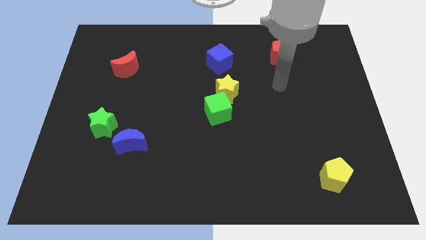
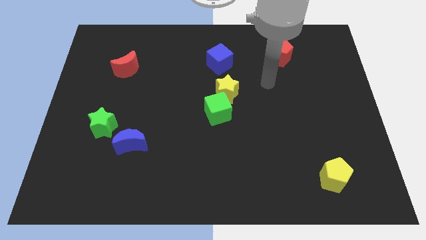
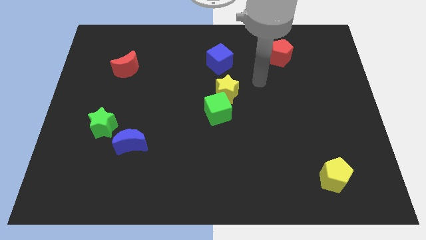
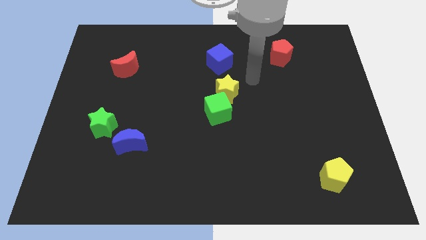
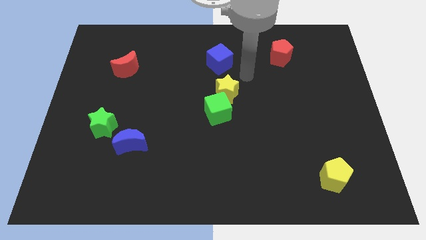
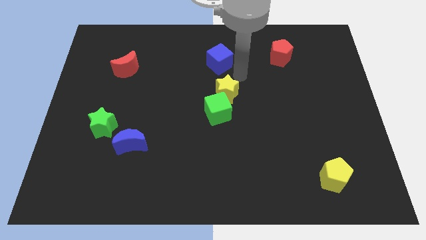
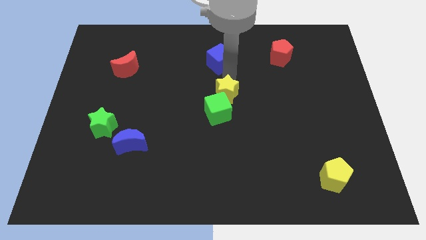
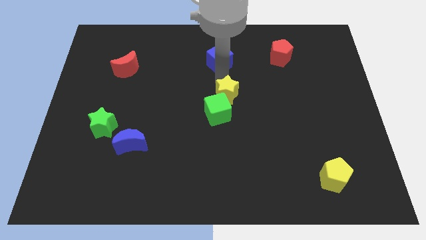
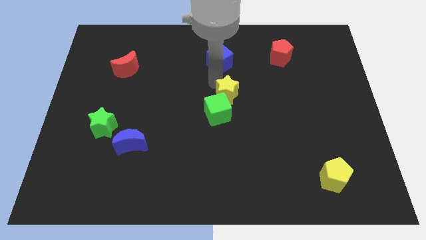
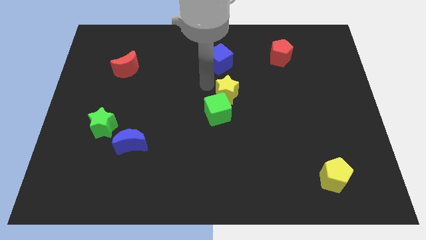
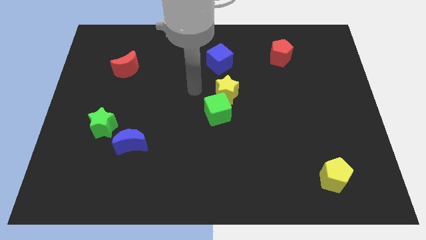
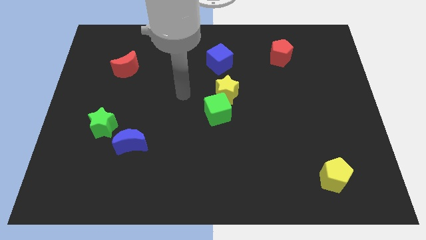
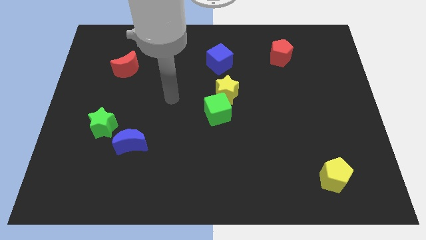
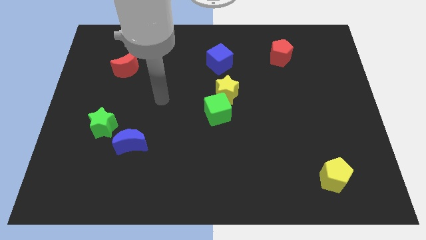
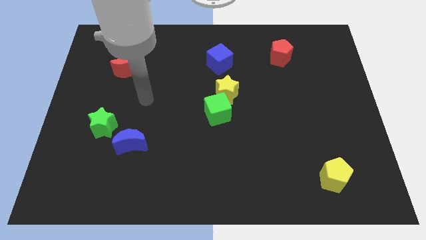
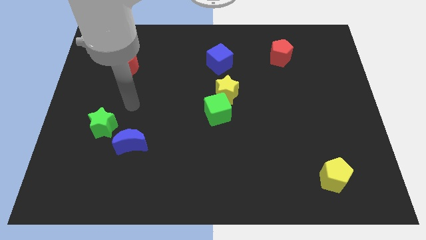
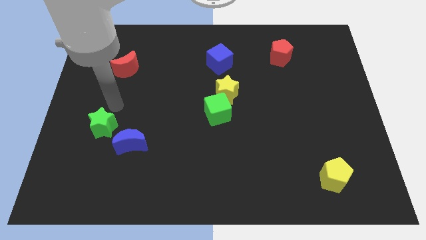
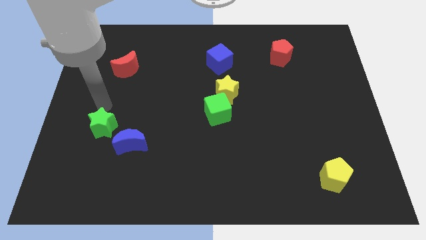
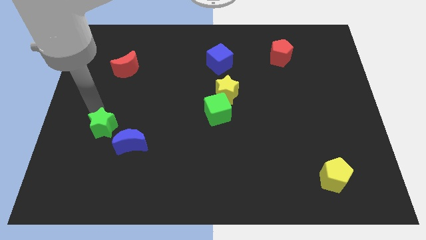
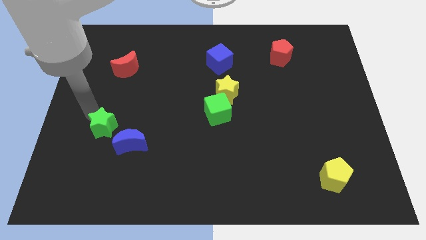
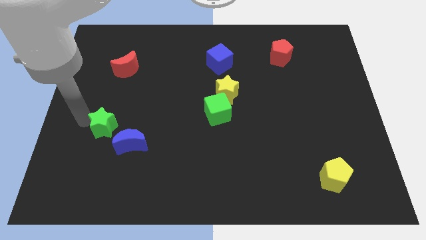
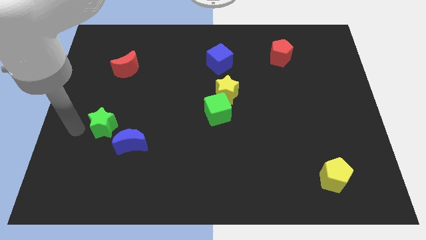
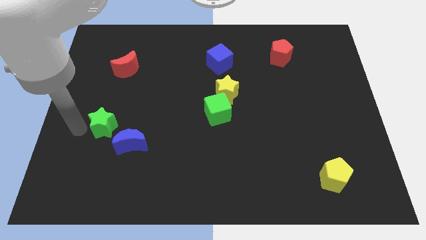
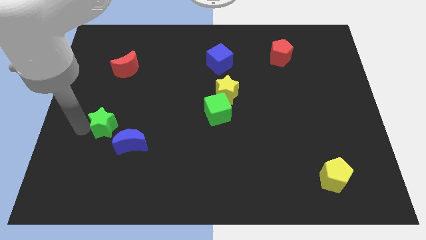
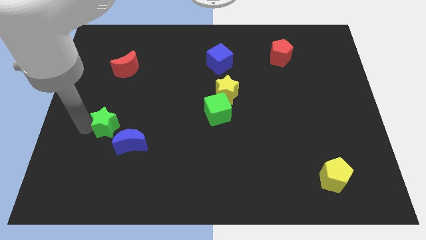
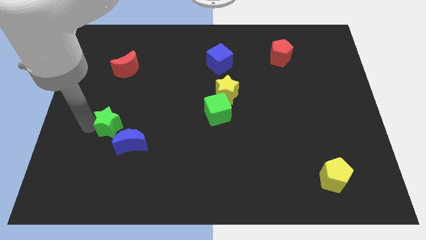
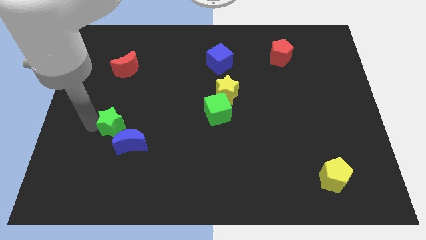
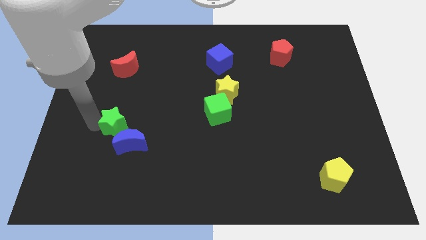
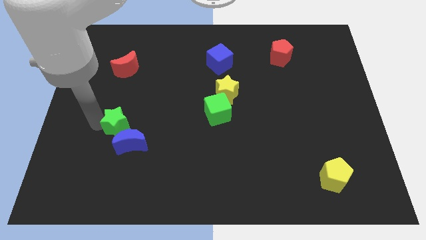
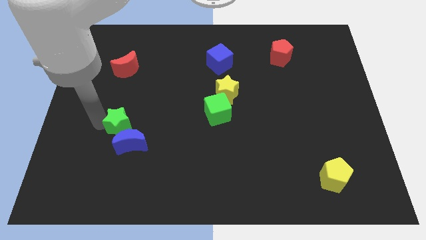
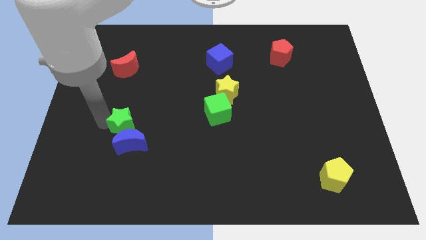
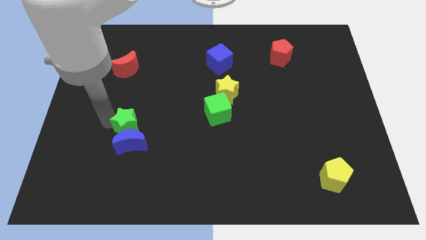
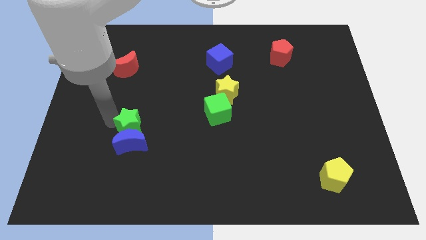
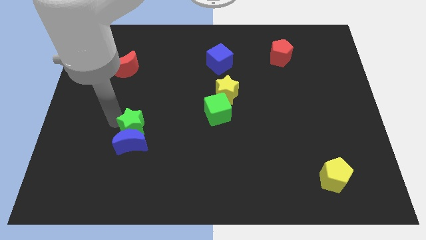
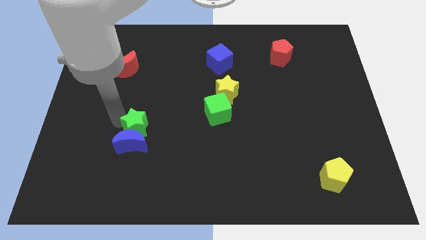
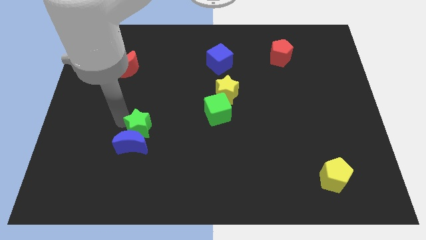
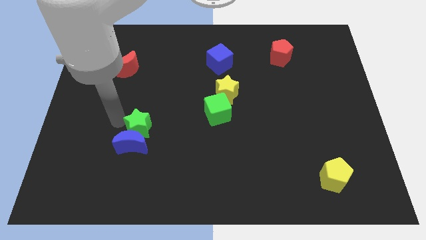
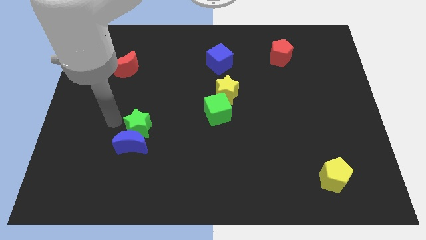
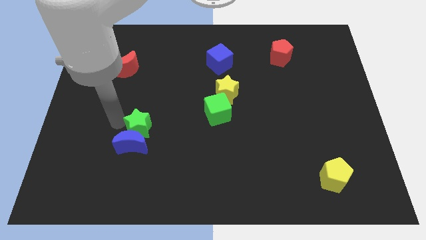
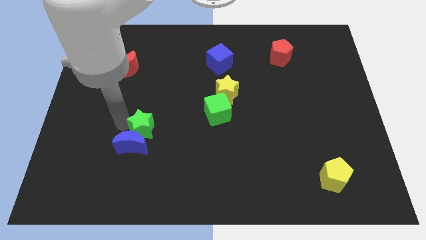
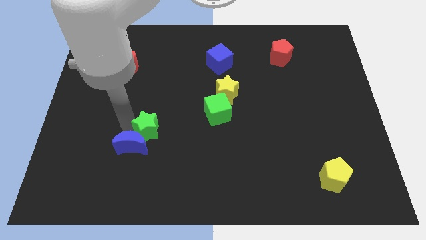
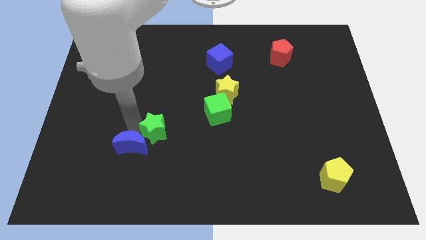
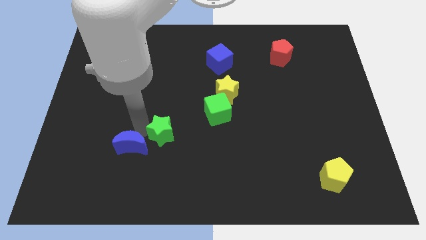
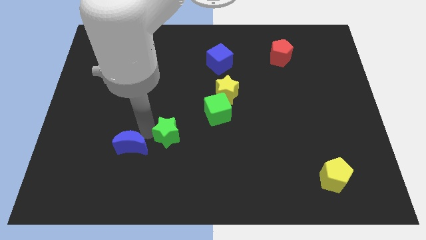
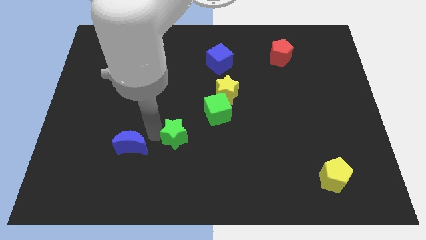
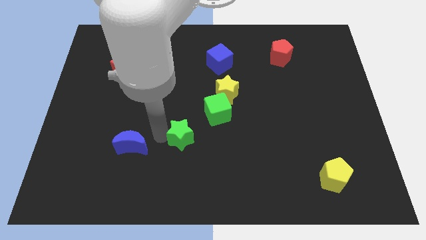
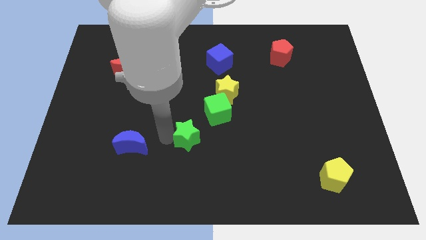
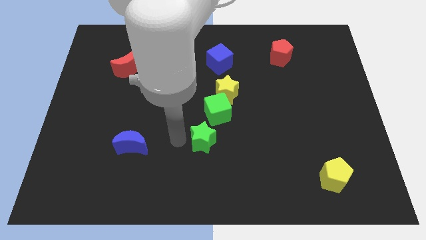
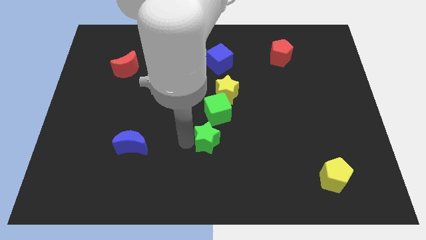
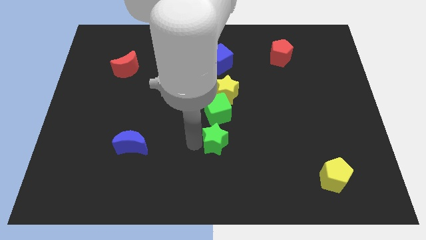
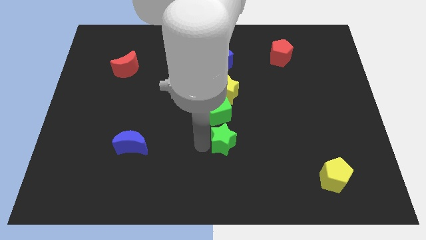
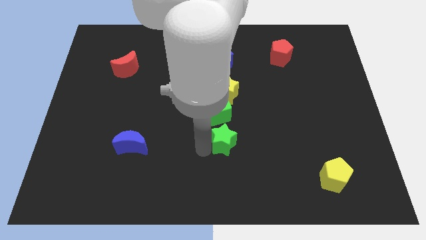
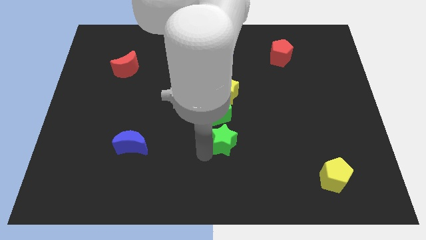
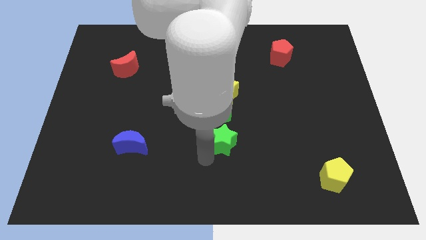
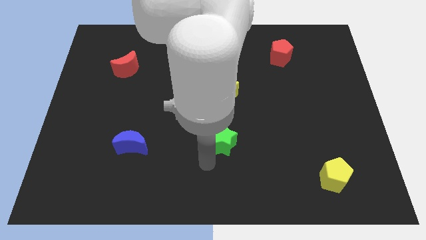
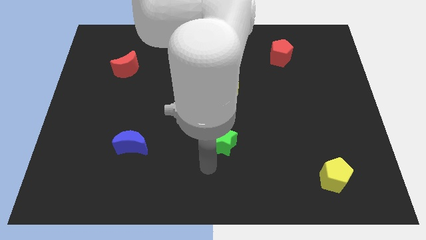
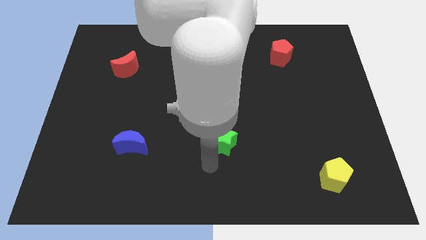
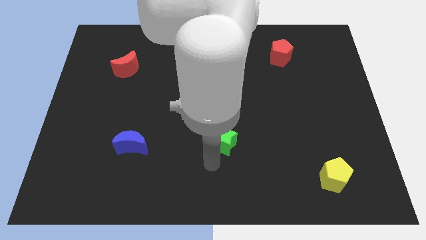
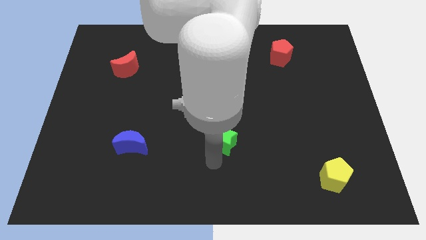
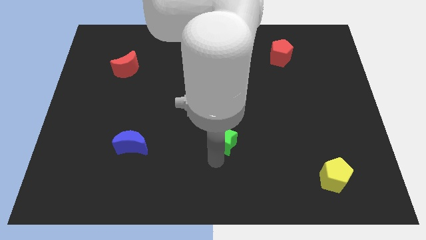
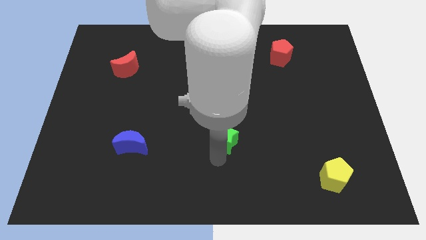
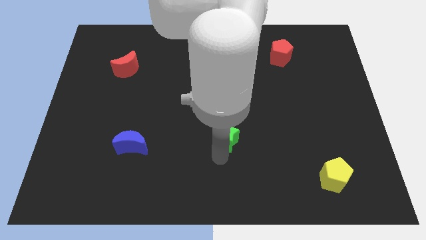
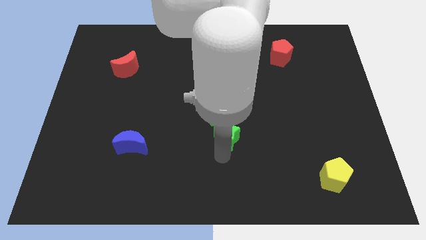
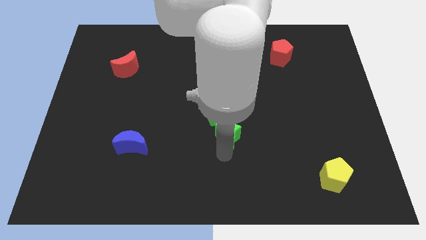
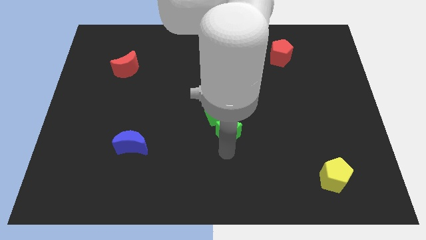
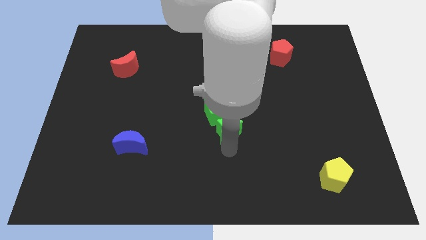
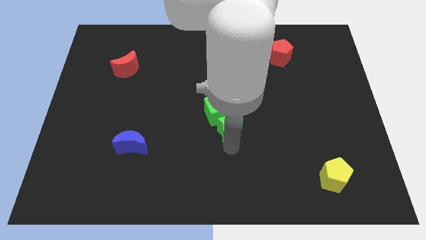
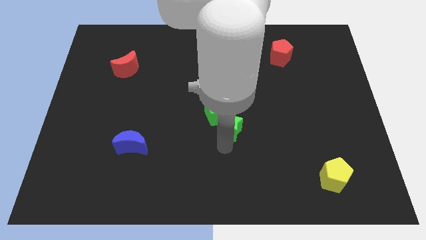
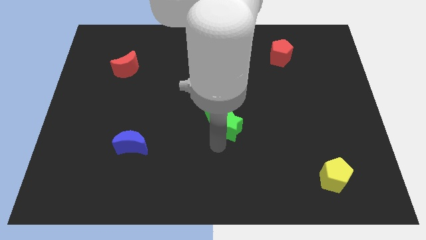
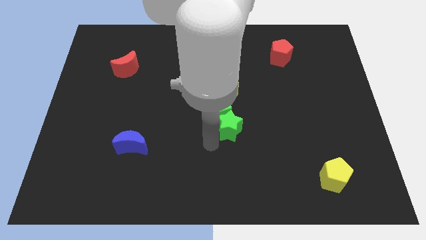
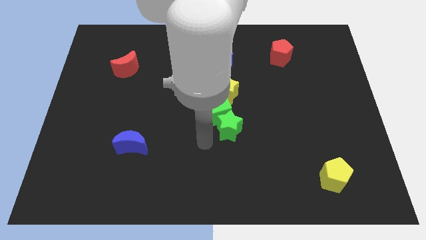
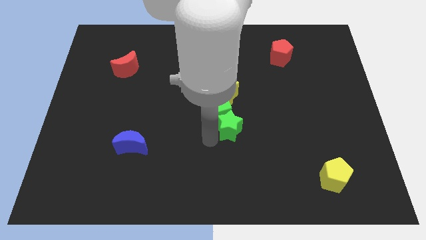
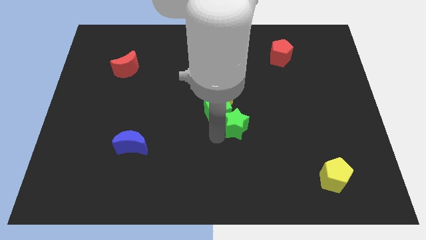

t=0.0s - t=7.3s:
slide the green star right of the green cube
